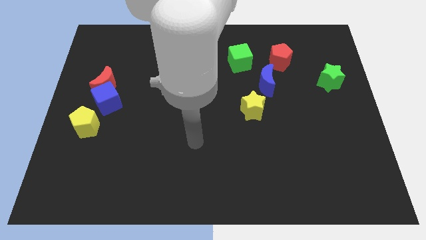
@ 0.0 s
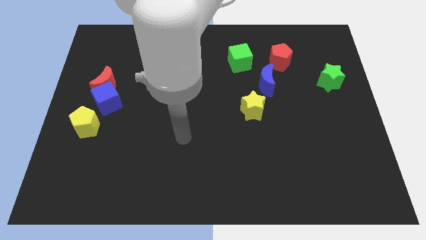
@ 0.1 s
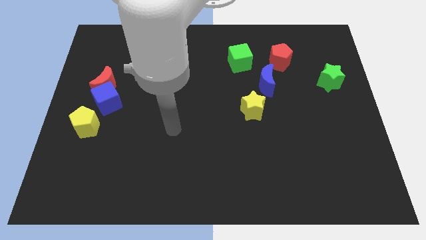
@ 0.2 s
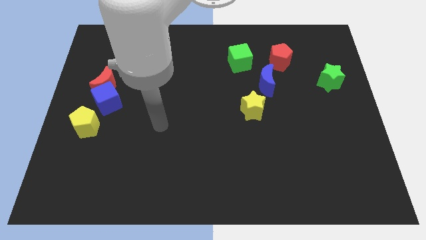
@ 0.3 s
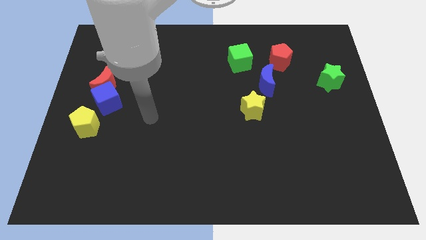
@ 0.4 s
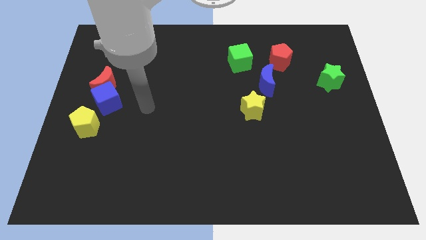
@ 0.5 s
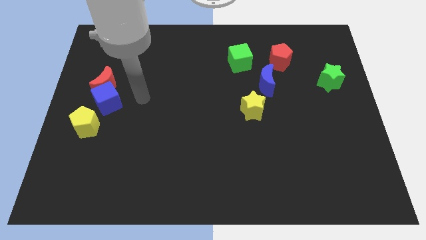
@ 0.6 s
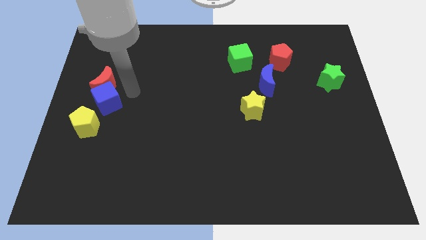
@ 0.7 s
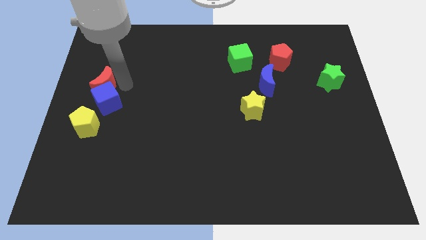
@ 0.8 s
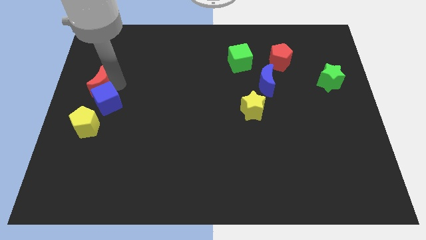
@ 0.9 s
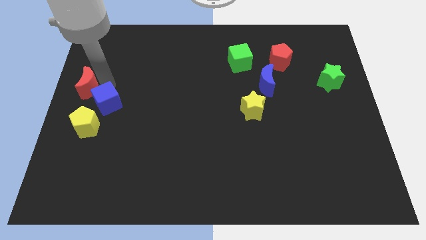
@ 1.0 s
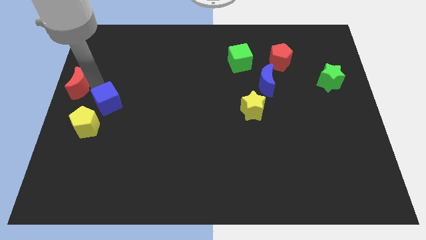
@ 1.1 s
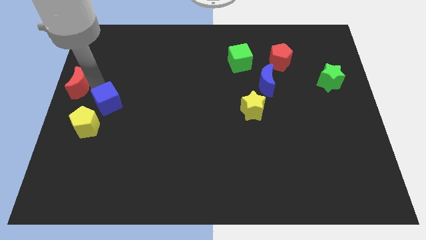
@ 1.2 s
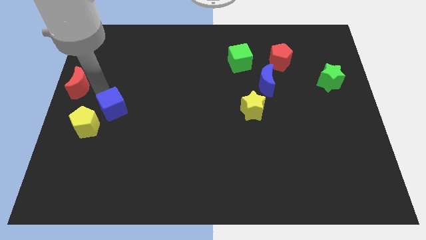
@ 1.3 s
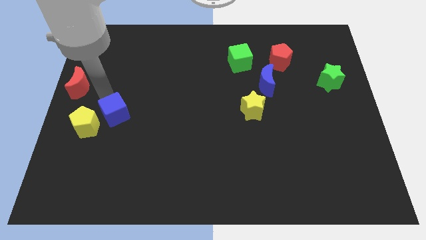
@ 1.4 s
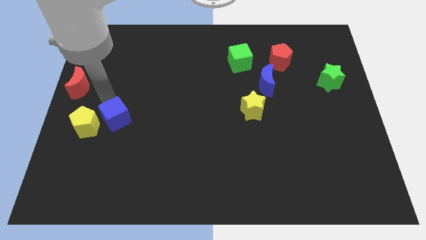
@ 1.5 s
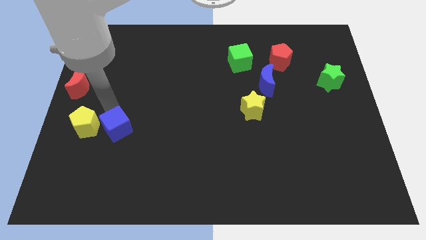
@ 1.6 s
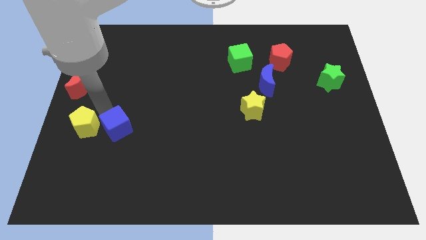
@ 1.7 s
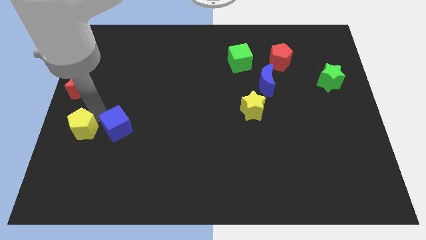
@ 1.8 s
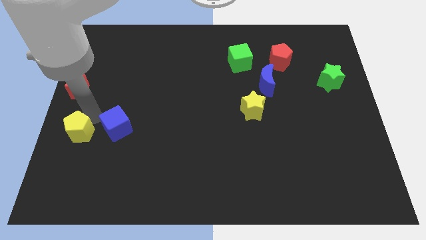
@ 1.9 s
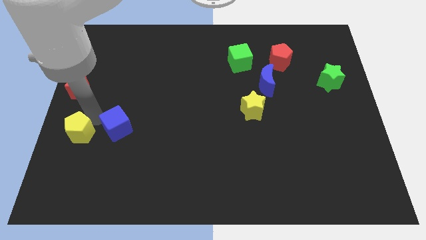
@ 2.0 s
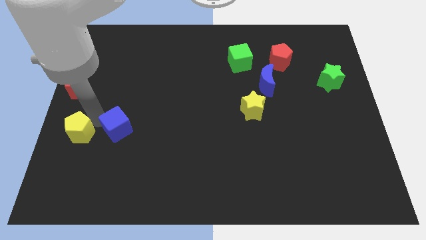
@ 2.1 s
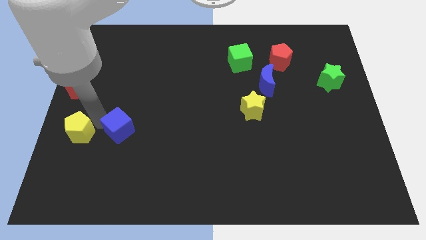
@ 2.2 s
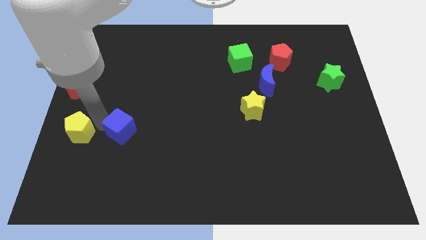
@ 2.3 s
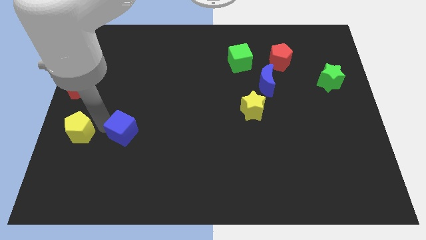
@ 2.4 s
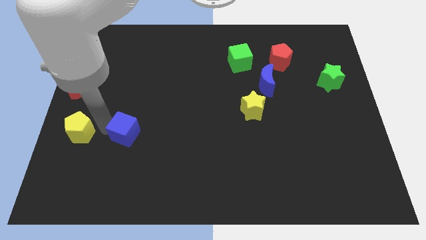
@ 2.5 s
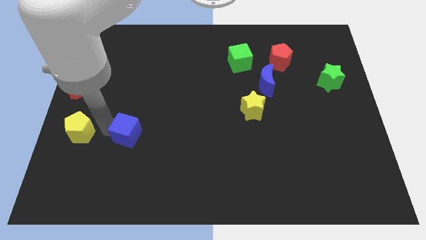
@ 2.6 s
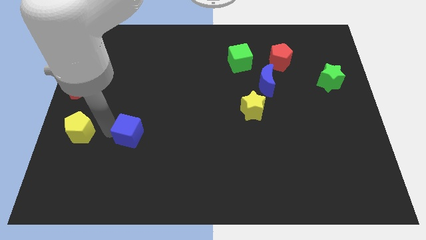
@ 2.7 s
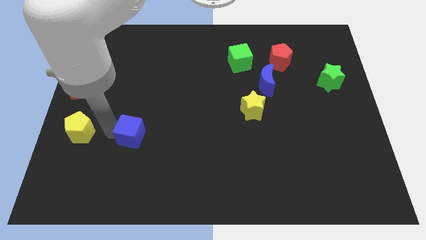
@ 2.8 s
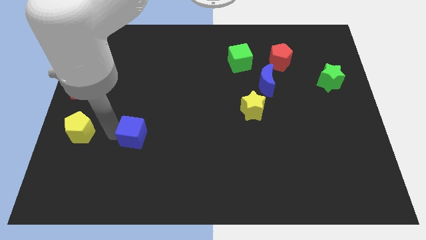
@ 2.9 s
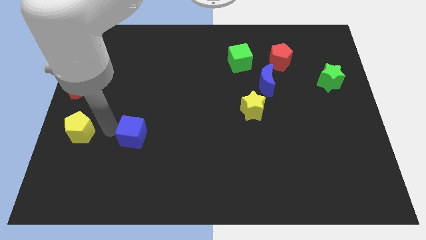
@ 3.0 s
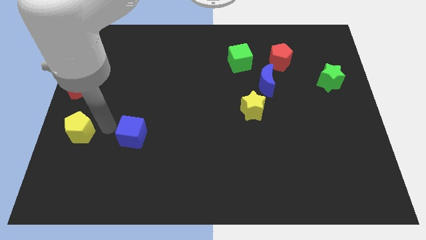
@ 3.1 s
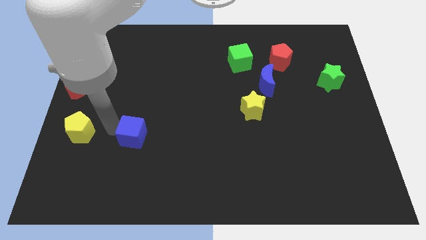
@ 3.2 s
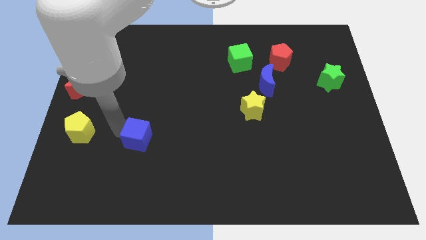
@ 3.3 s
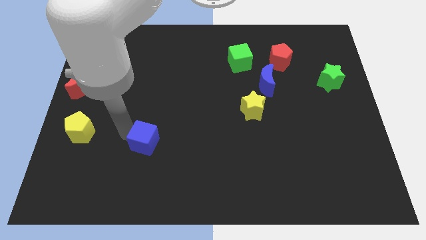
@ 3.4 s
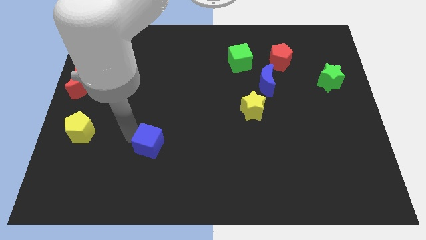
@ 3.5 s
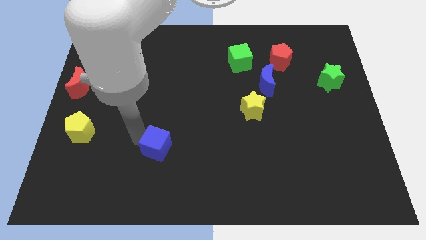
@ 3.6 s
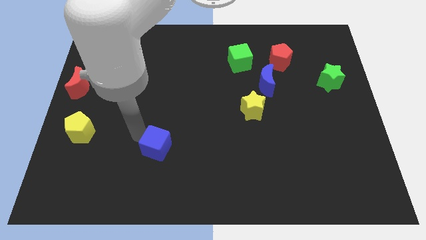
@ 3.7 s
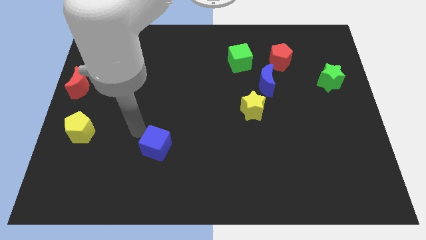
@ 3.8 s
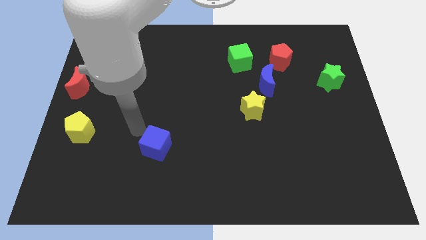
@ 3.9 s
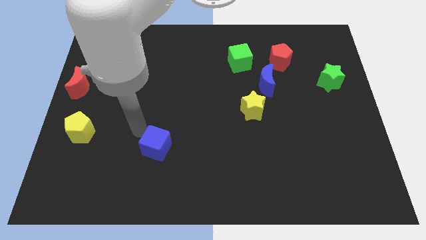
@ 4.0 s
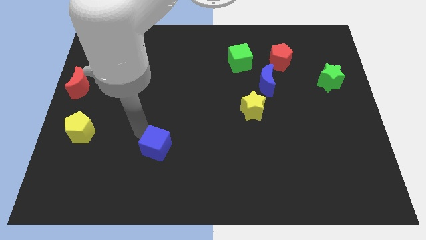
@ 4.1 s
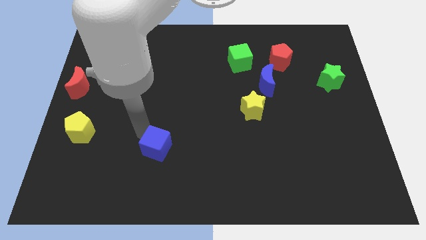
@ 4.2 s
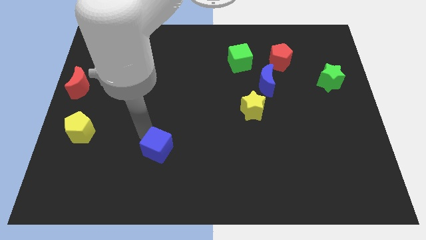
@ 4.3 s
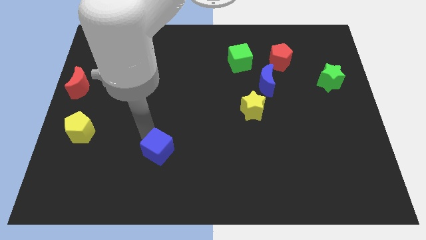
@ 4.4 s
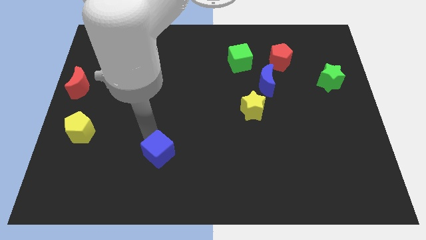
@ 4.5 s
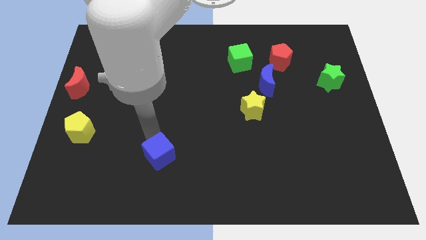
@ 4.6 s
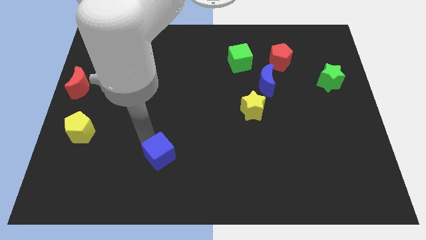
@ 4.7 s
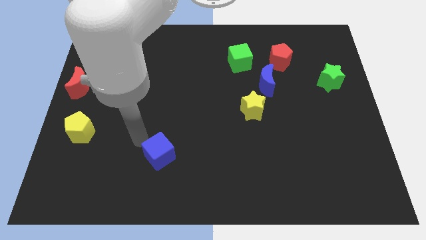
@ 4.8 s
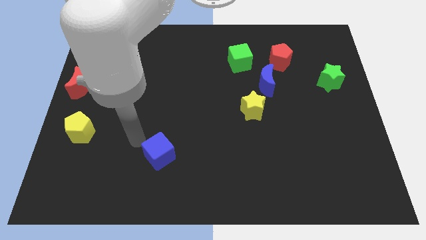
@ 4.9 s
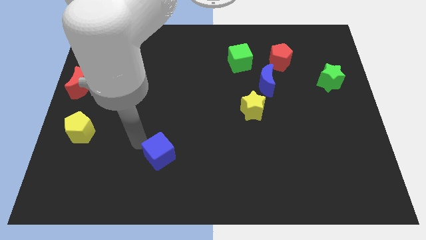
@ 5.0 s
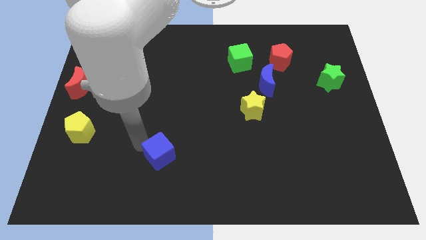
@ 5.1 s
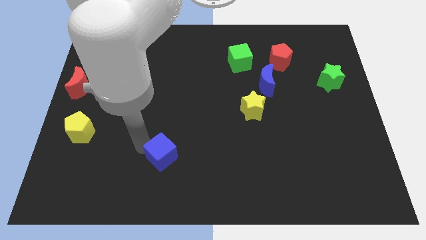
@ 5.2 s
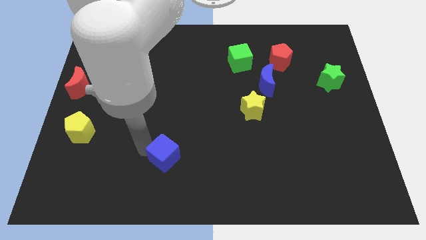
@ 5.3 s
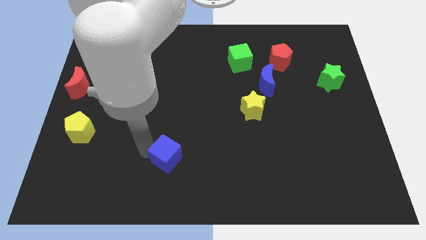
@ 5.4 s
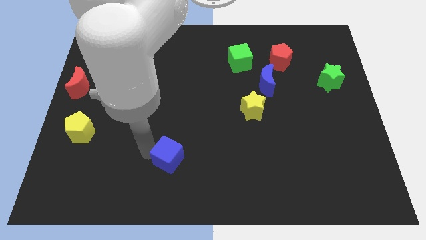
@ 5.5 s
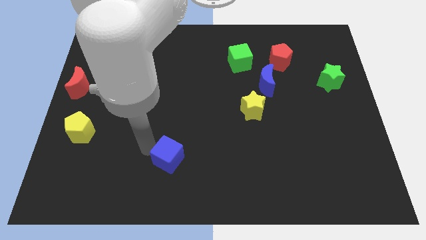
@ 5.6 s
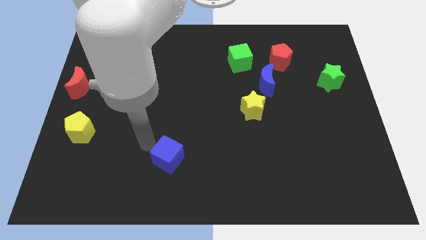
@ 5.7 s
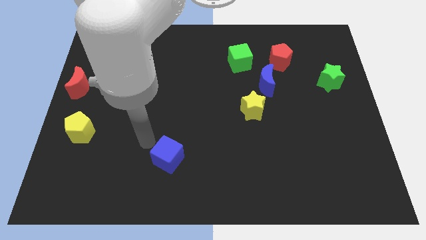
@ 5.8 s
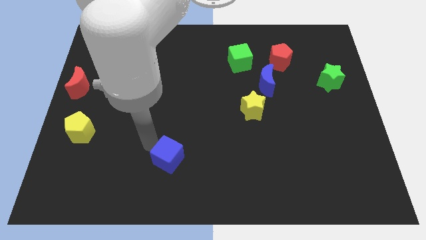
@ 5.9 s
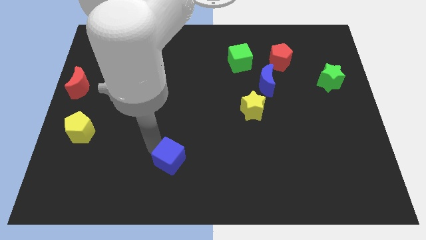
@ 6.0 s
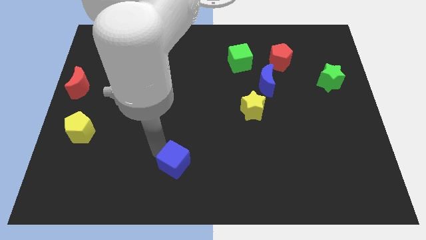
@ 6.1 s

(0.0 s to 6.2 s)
slide the blue cube to the bottom

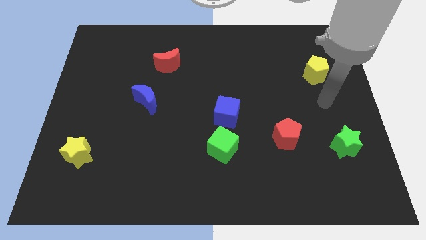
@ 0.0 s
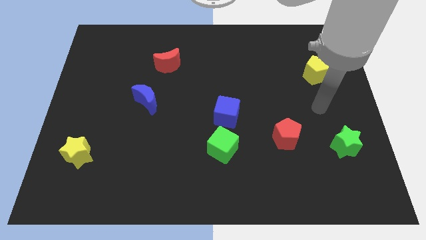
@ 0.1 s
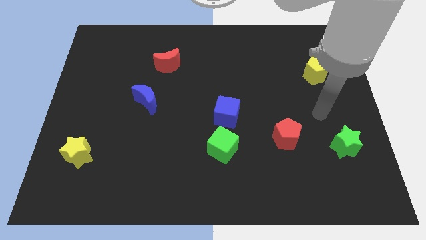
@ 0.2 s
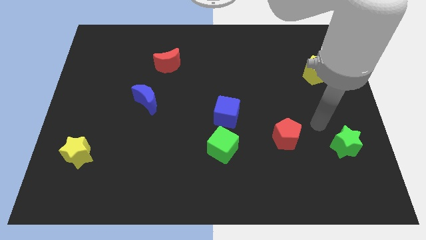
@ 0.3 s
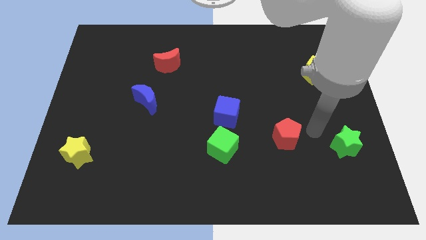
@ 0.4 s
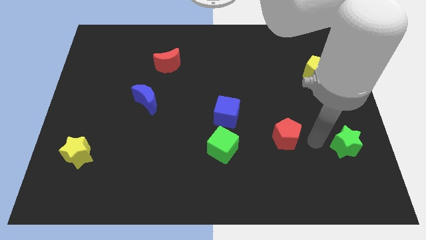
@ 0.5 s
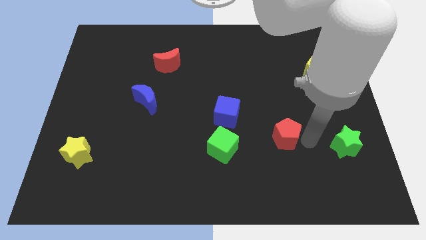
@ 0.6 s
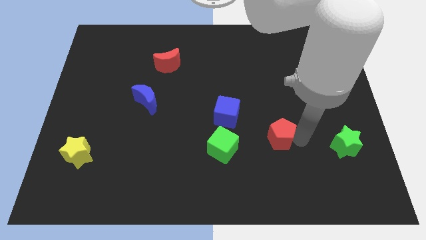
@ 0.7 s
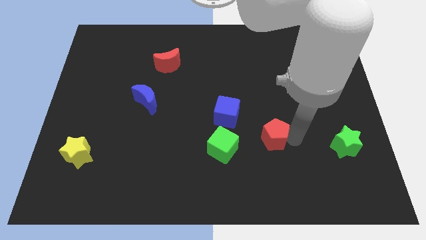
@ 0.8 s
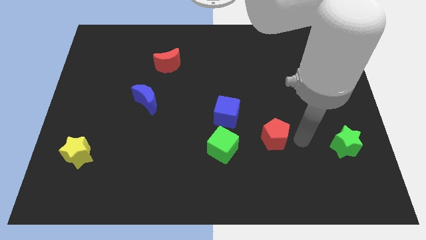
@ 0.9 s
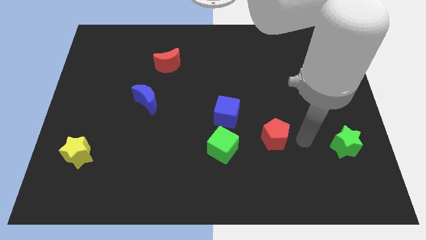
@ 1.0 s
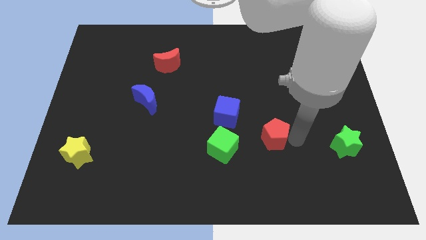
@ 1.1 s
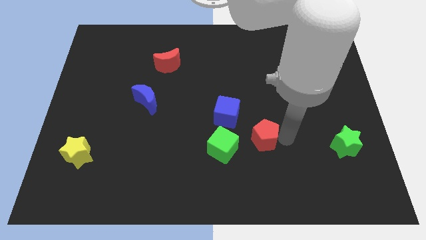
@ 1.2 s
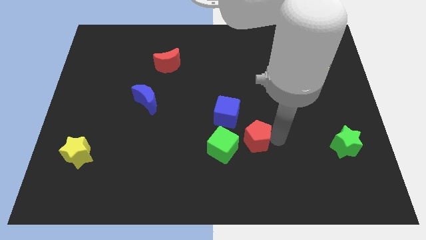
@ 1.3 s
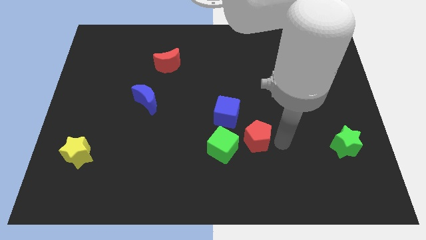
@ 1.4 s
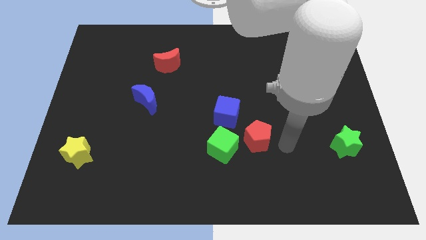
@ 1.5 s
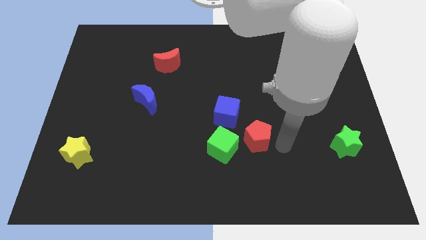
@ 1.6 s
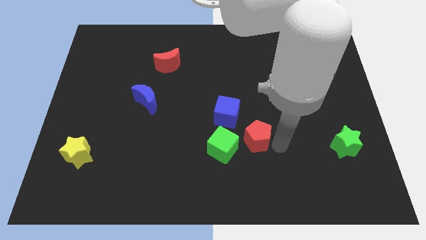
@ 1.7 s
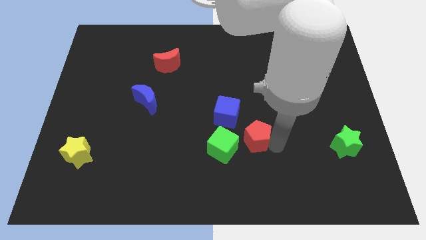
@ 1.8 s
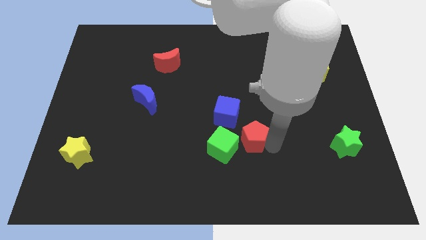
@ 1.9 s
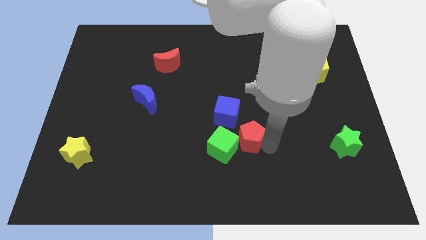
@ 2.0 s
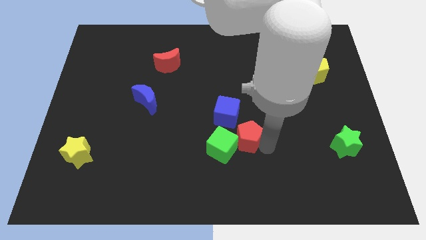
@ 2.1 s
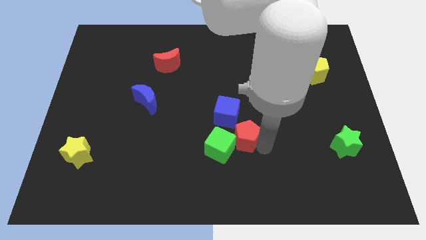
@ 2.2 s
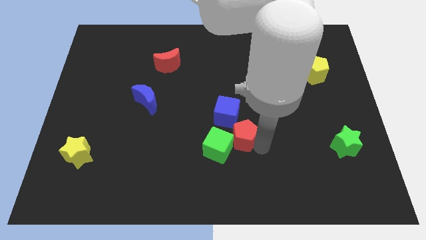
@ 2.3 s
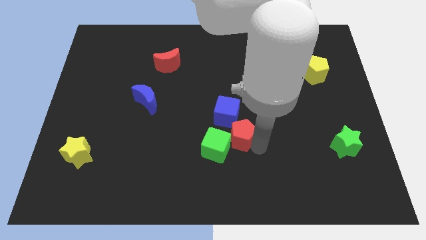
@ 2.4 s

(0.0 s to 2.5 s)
push the red pentagon to the middle
